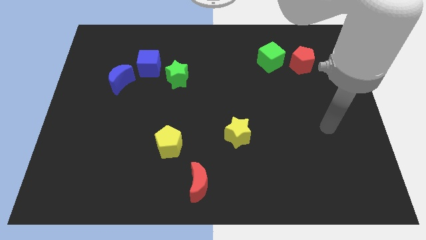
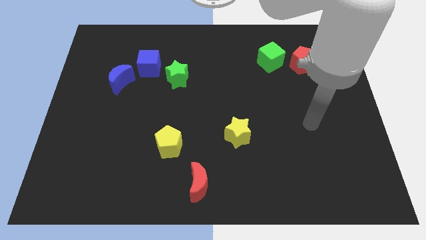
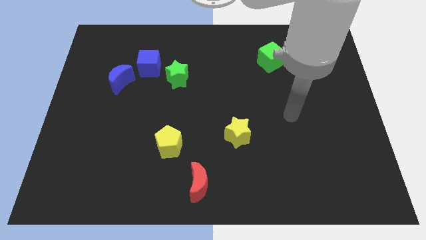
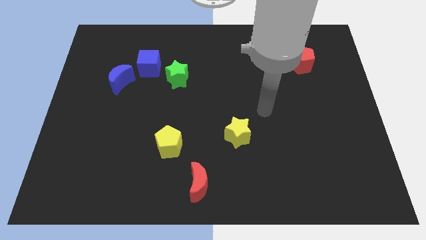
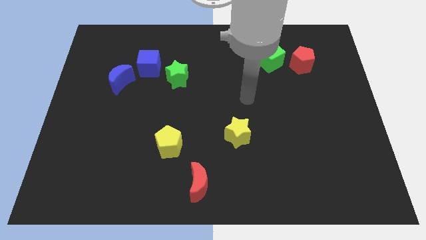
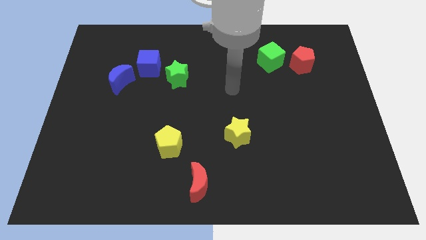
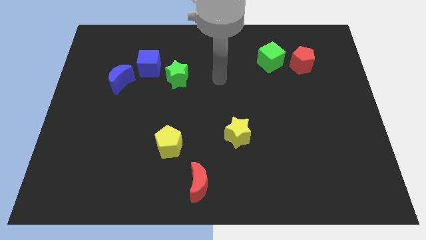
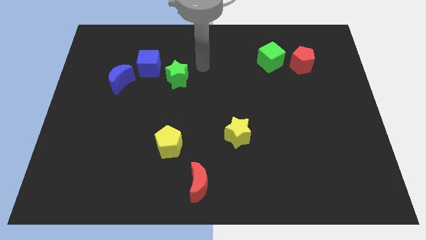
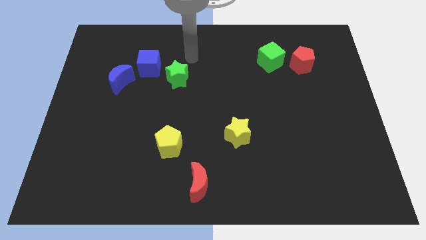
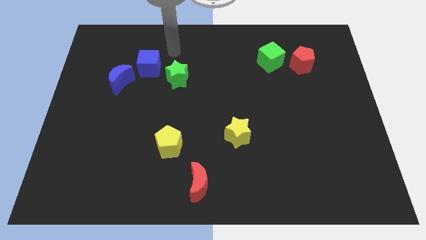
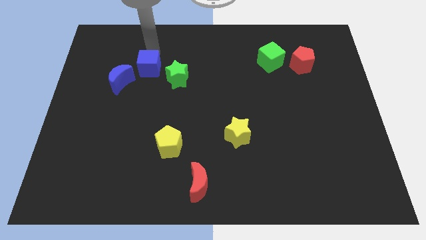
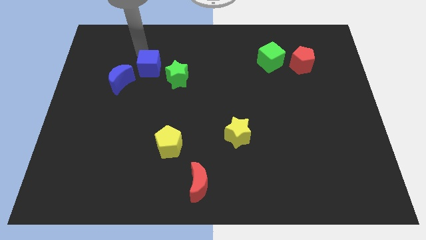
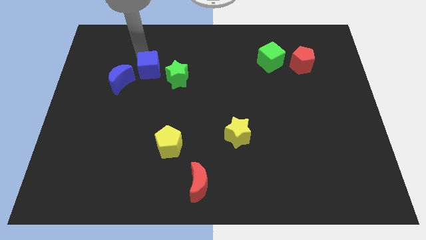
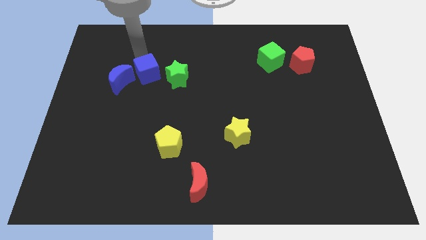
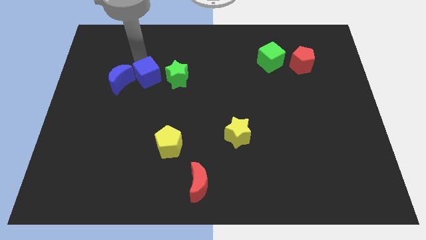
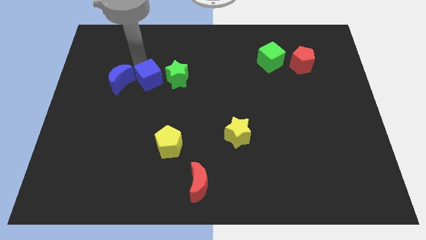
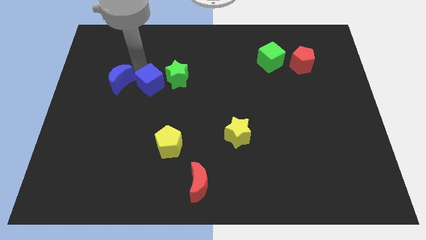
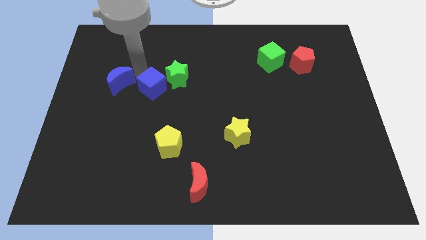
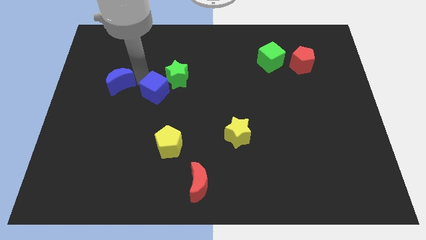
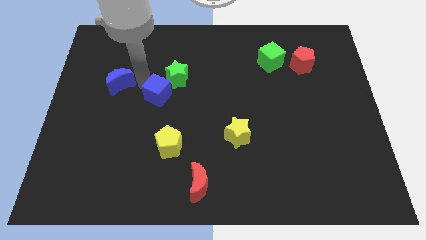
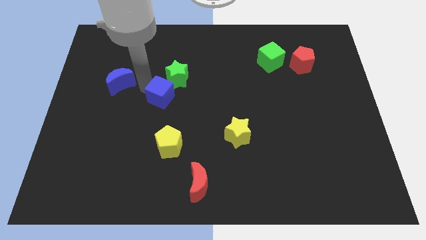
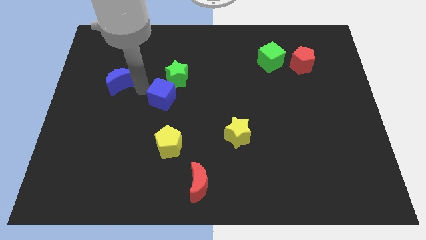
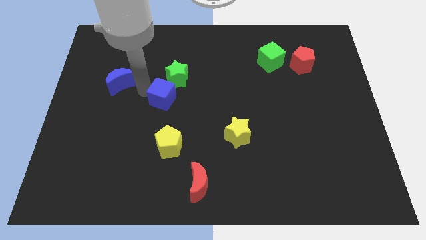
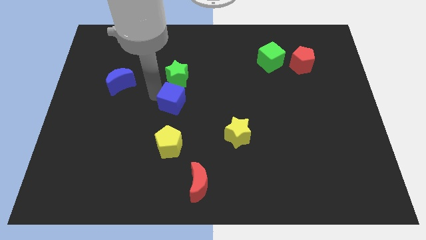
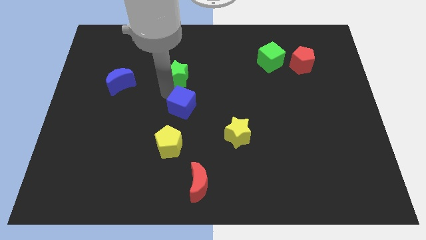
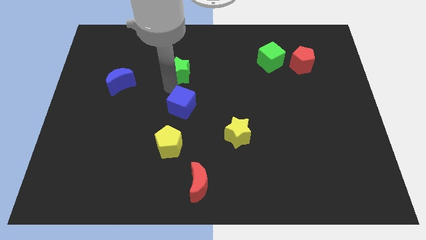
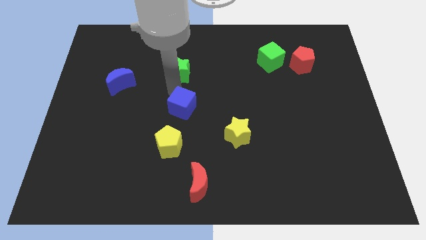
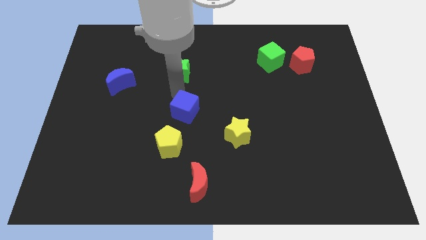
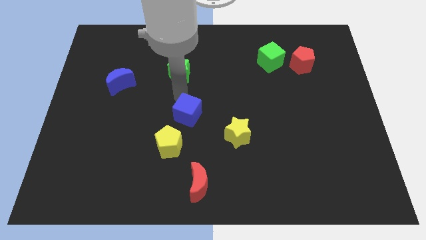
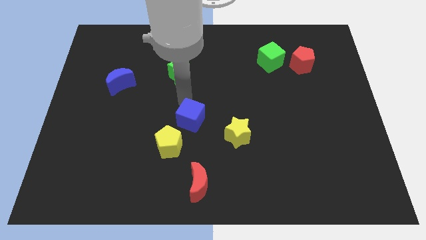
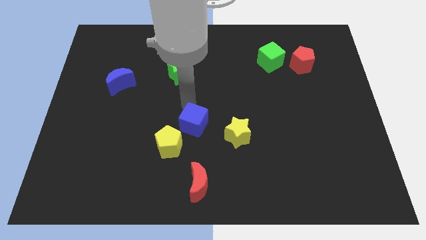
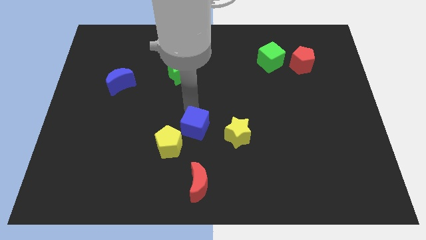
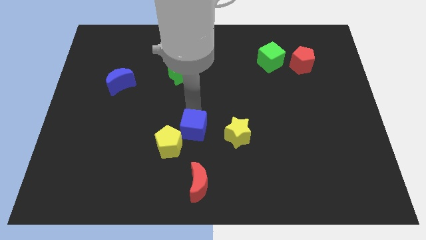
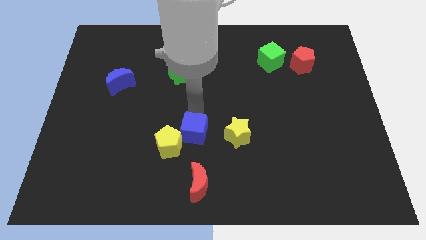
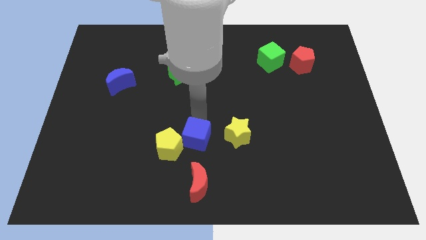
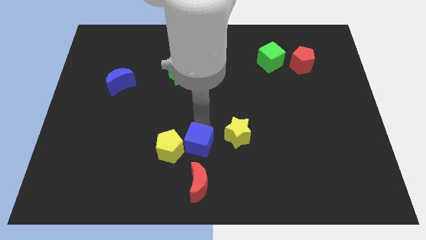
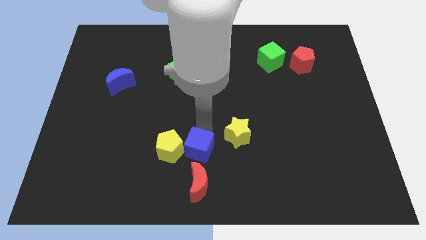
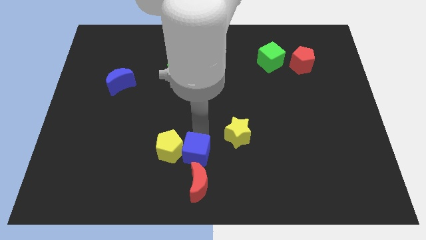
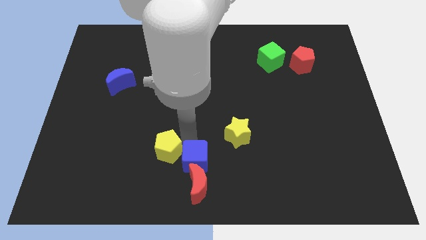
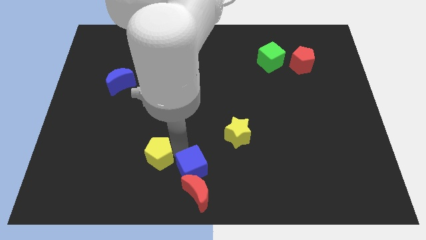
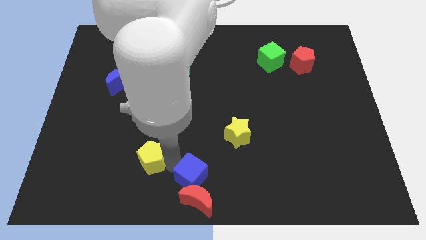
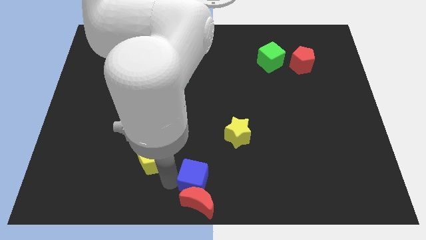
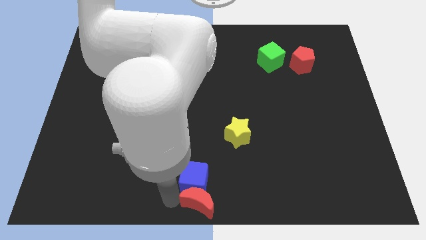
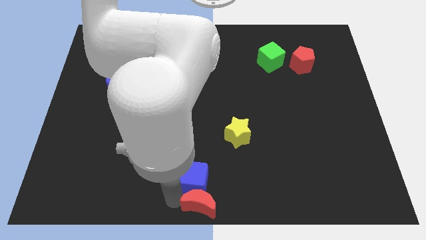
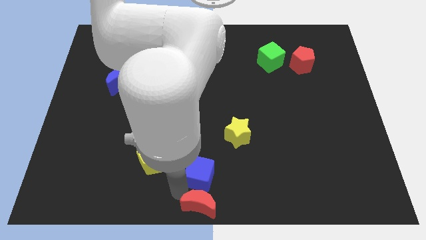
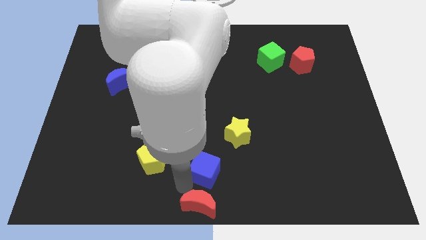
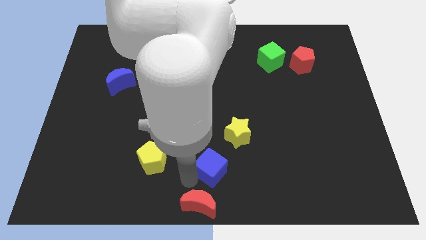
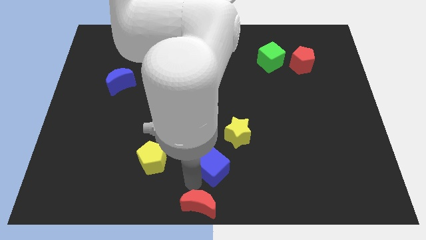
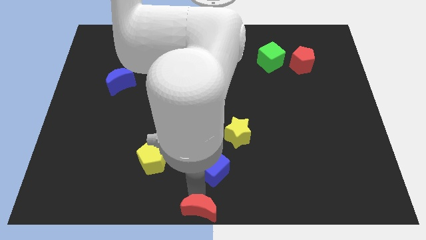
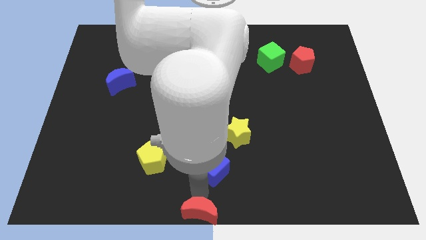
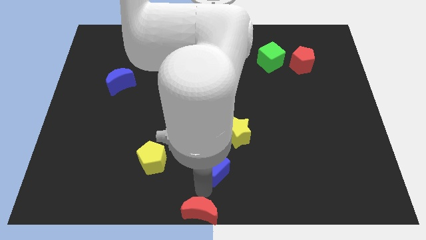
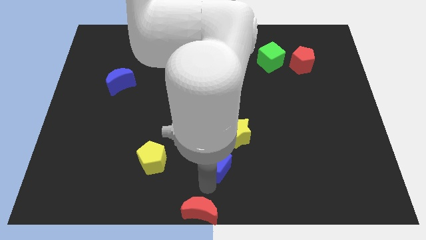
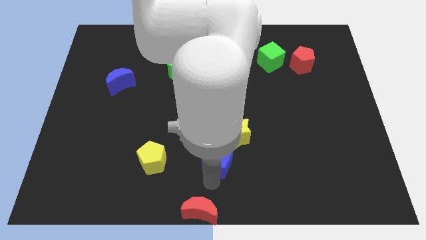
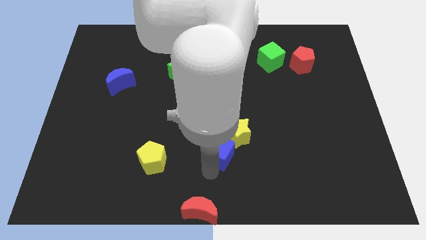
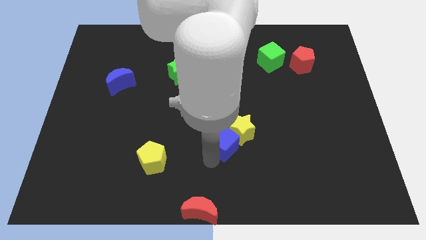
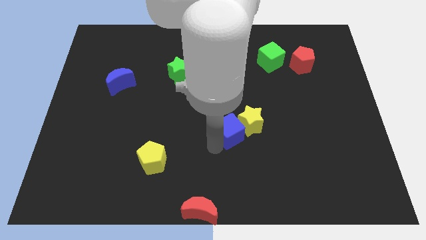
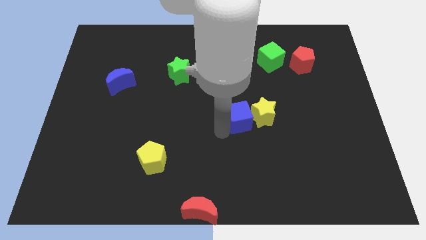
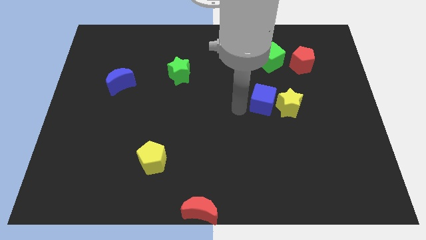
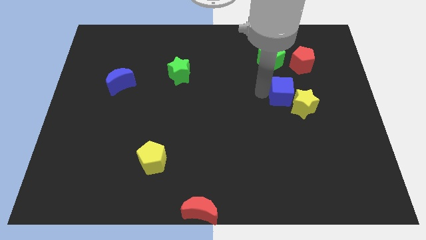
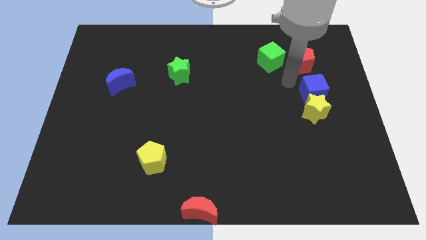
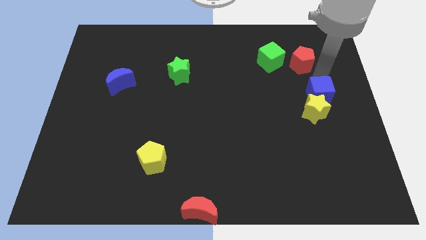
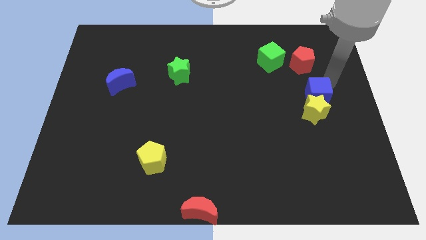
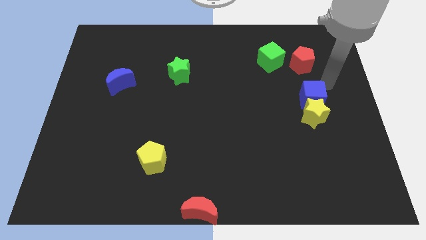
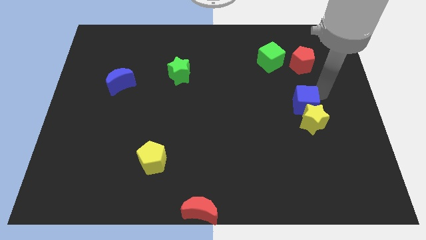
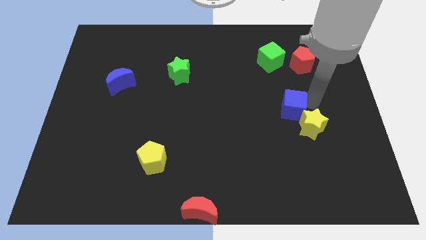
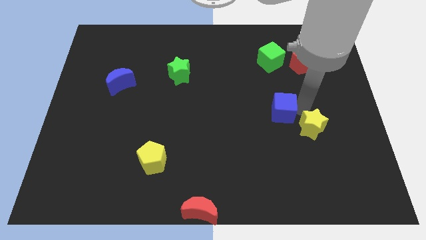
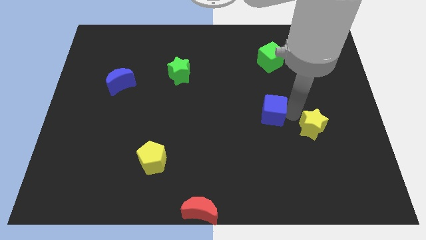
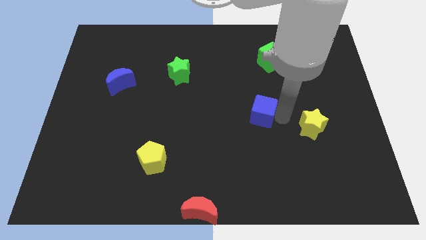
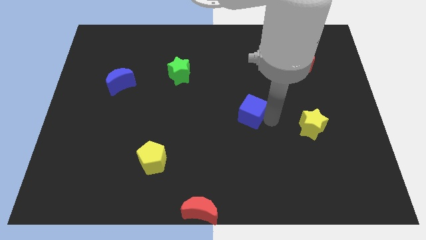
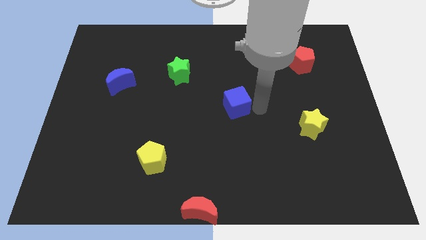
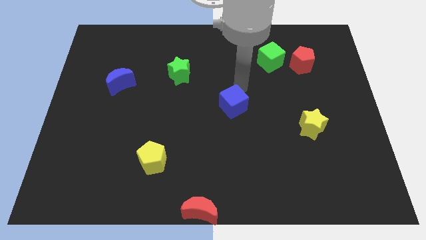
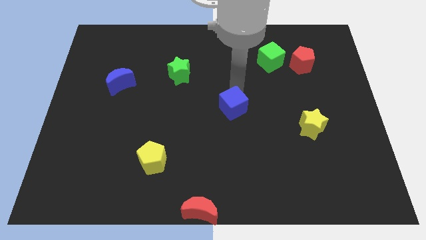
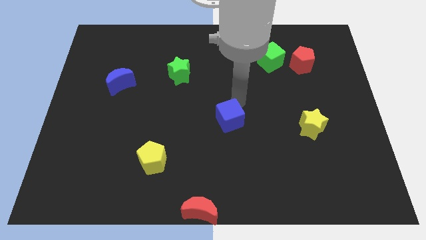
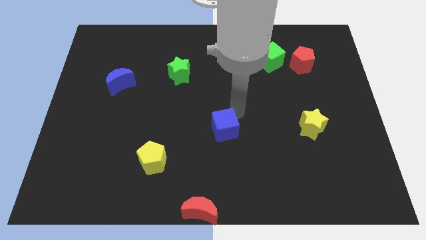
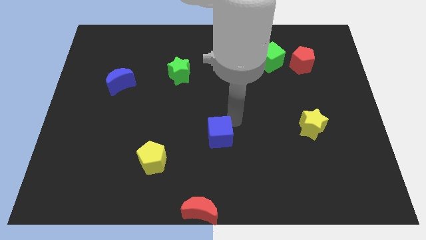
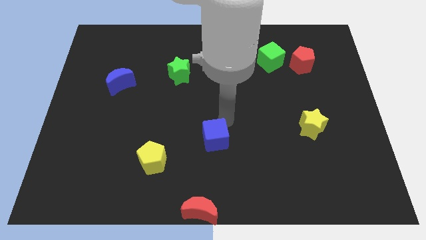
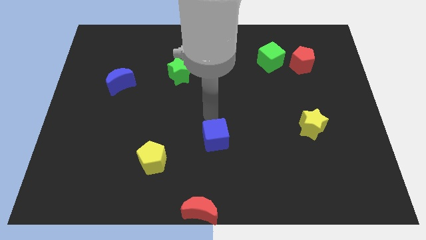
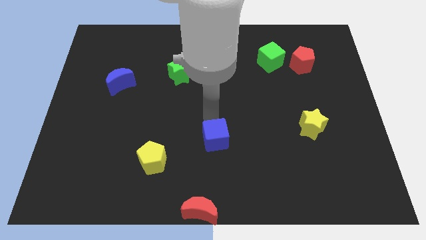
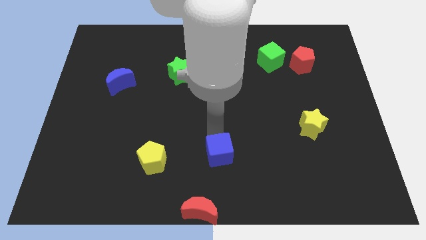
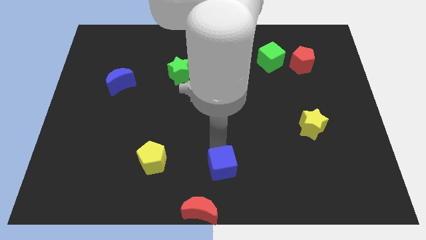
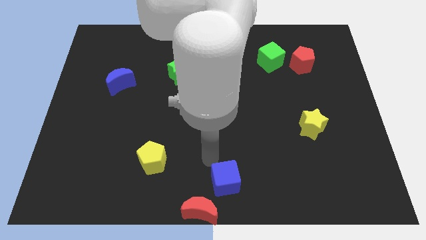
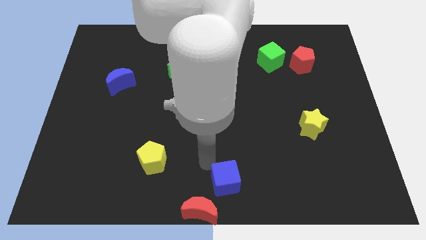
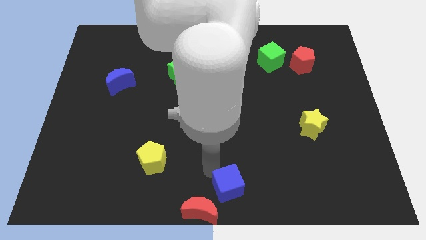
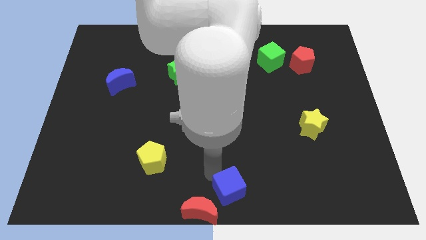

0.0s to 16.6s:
put the blue cube just right of the red moon
